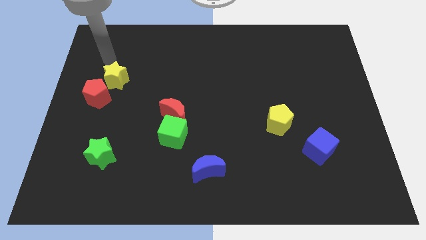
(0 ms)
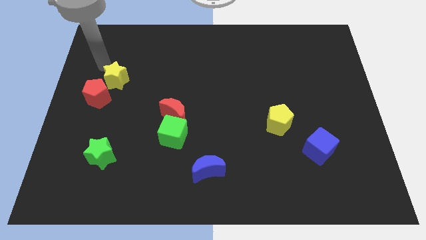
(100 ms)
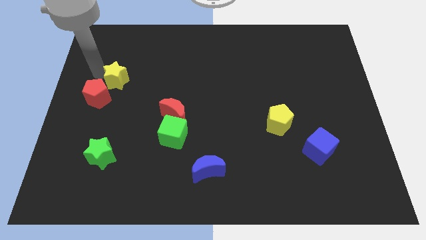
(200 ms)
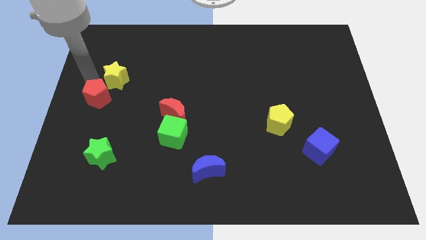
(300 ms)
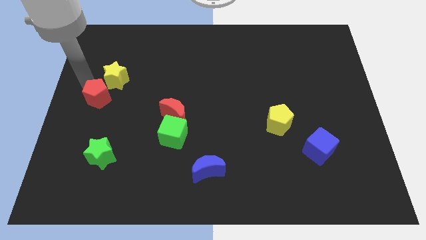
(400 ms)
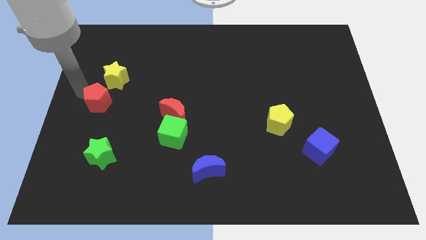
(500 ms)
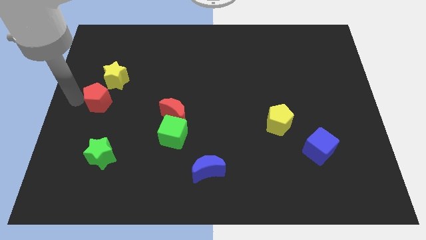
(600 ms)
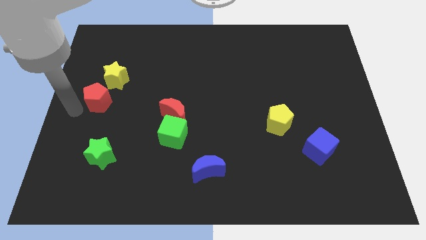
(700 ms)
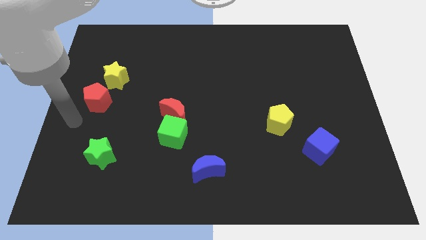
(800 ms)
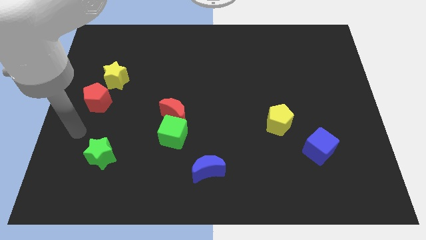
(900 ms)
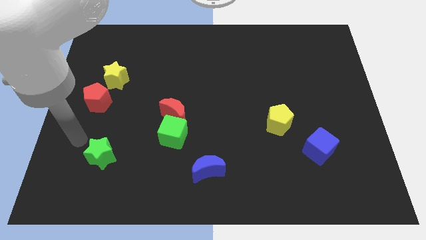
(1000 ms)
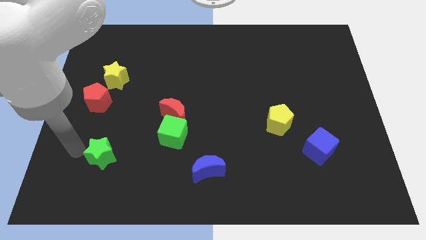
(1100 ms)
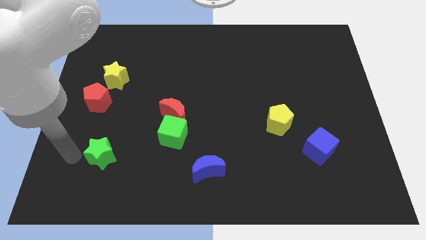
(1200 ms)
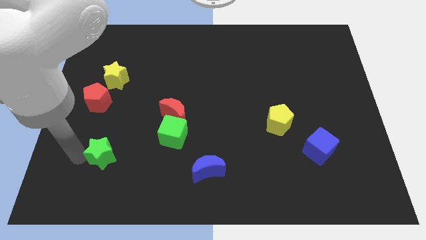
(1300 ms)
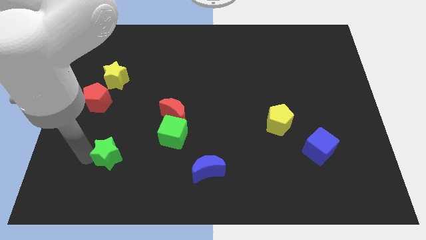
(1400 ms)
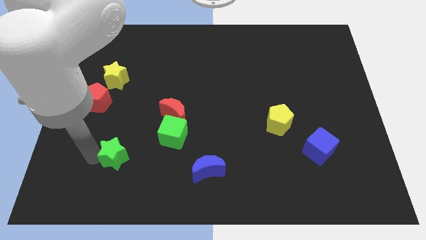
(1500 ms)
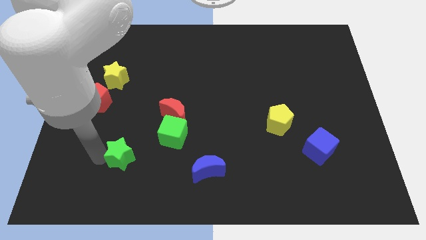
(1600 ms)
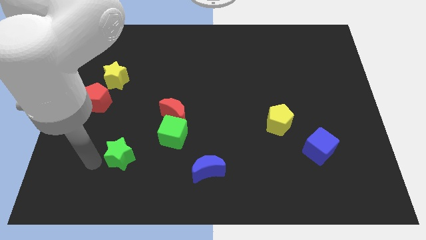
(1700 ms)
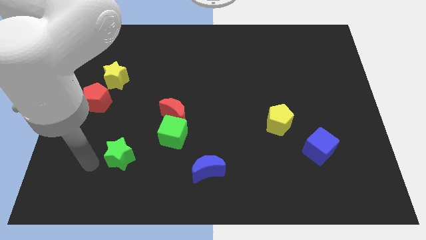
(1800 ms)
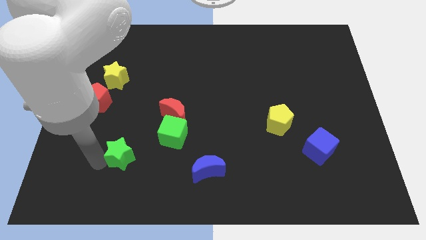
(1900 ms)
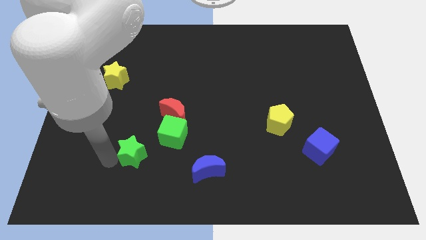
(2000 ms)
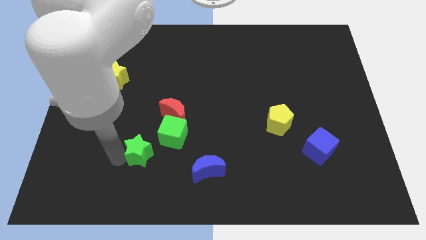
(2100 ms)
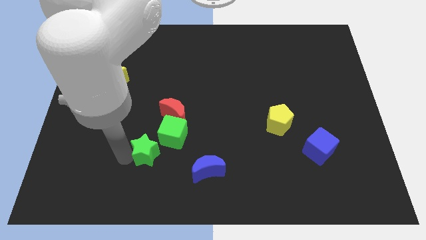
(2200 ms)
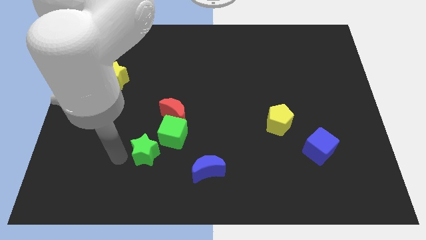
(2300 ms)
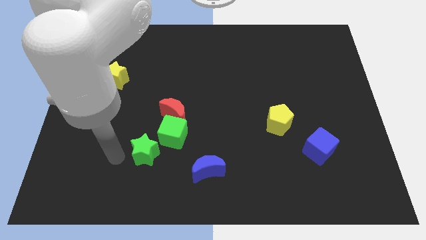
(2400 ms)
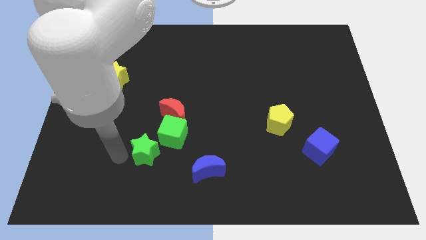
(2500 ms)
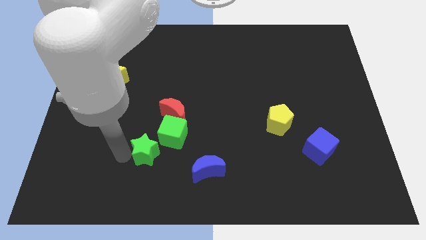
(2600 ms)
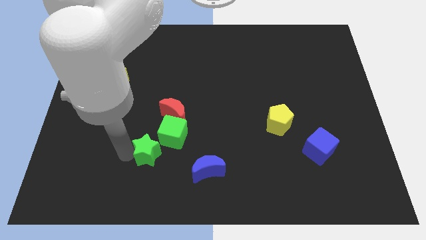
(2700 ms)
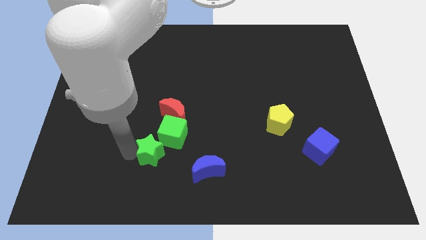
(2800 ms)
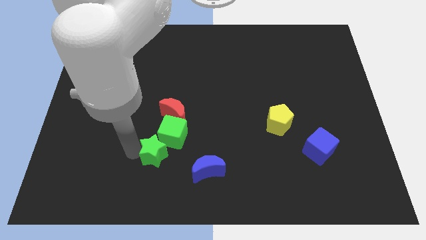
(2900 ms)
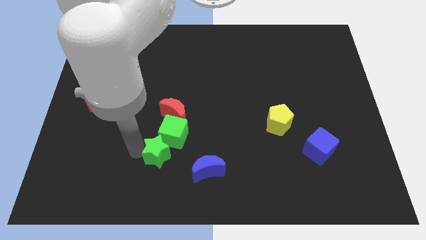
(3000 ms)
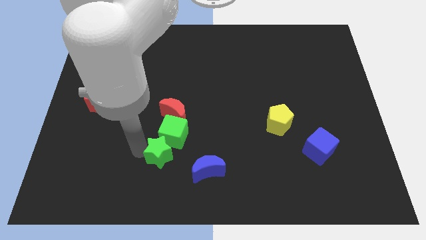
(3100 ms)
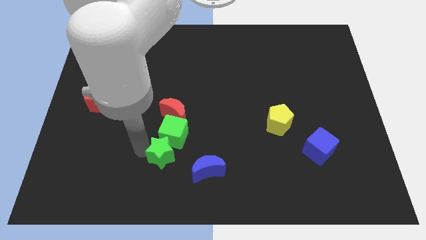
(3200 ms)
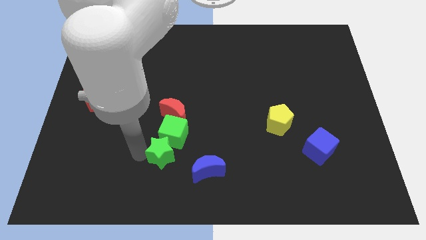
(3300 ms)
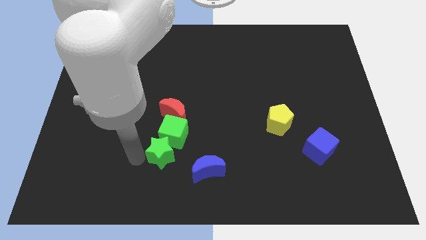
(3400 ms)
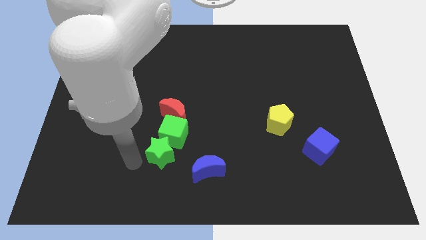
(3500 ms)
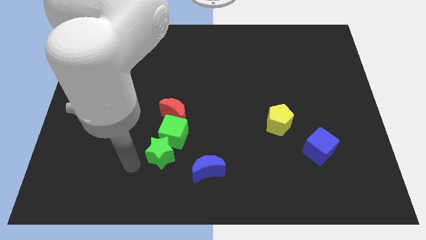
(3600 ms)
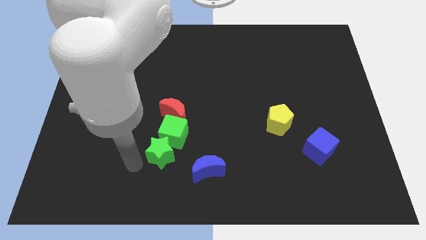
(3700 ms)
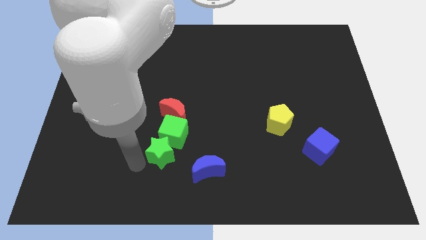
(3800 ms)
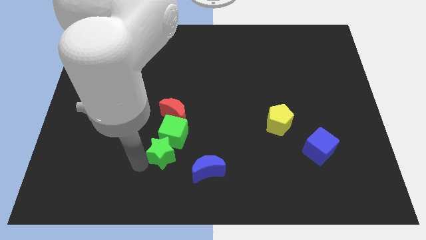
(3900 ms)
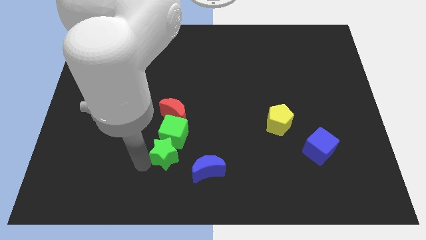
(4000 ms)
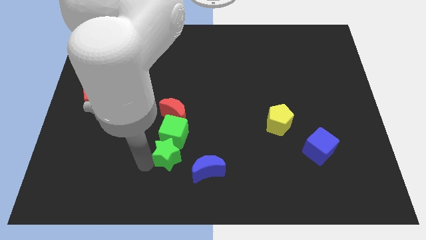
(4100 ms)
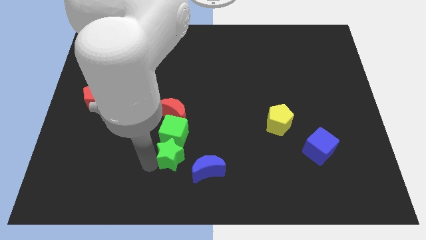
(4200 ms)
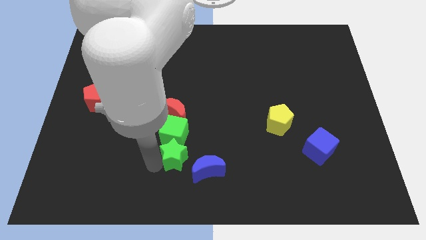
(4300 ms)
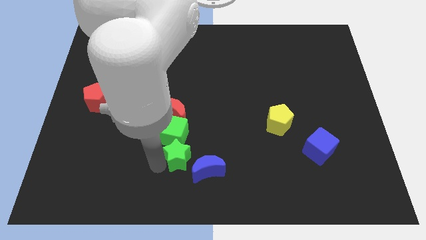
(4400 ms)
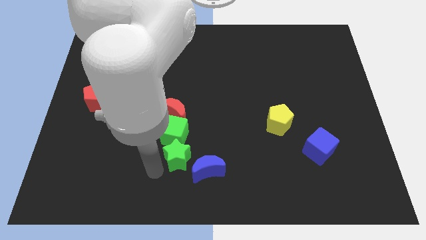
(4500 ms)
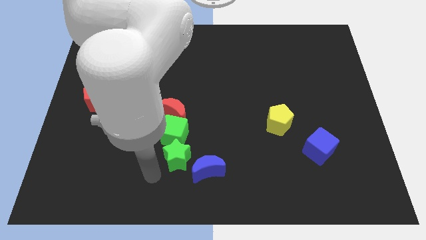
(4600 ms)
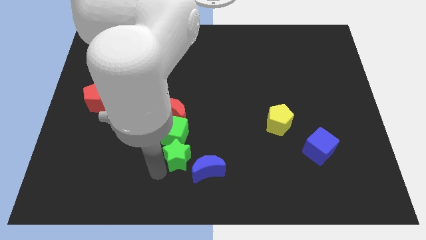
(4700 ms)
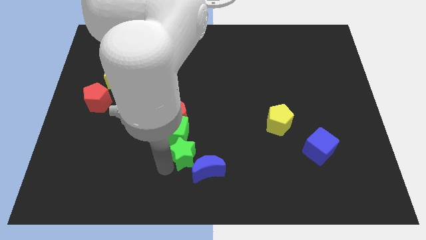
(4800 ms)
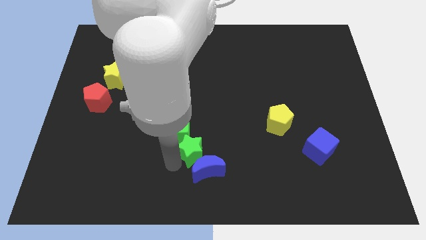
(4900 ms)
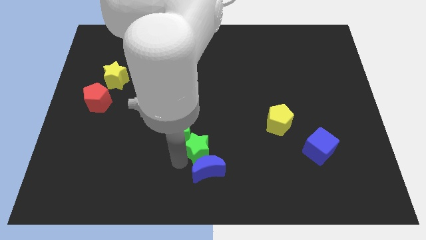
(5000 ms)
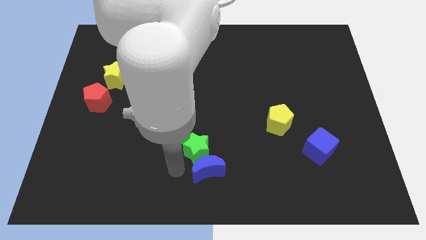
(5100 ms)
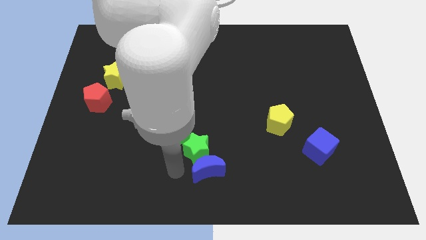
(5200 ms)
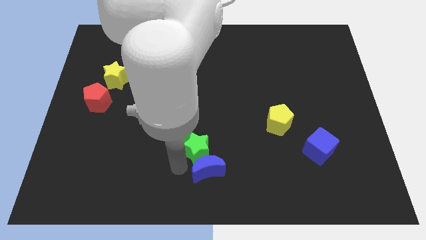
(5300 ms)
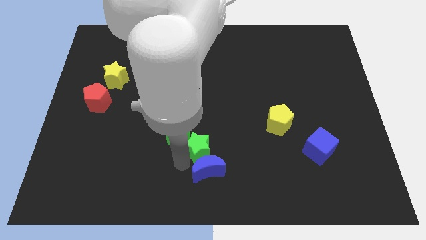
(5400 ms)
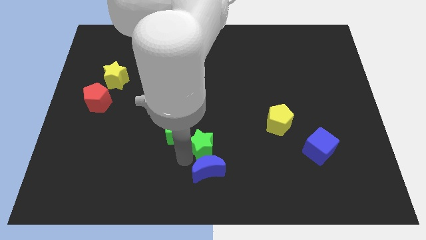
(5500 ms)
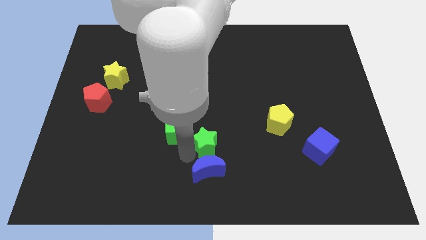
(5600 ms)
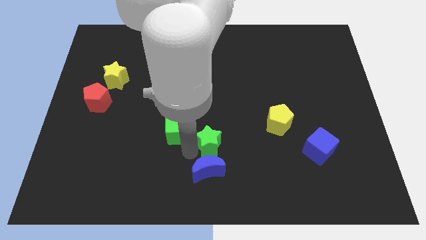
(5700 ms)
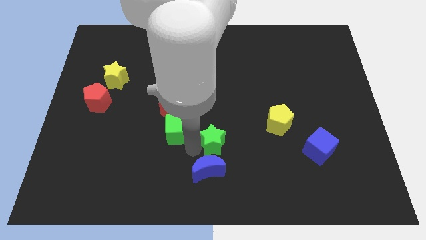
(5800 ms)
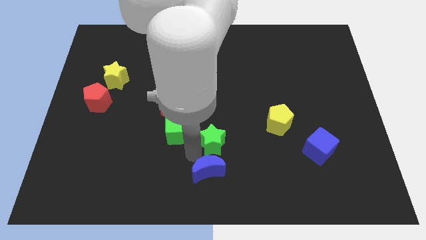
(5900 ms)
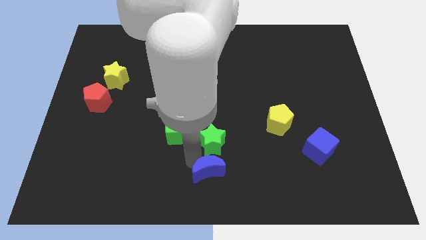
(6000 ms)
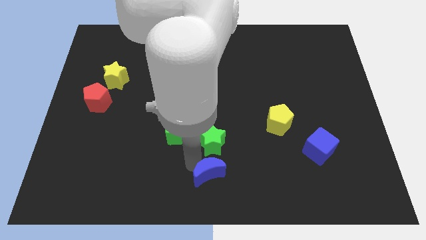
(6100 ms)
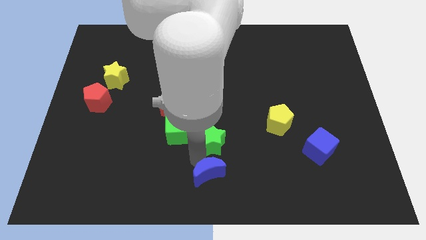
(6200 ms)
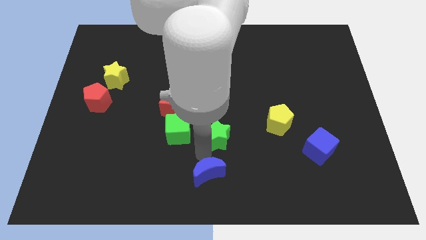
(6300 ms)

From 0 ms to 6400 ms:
move the green star to the left side of the yellow pentagon
